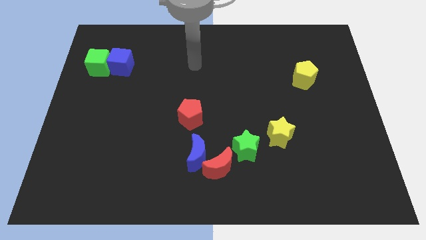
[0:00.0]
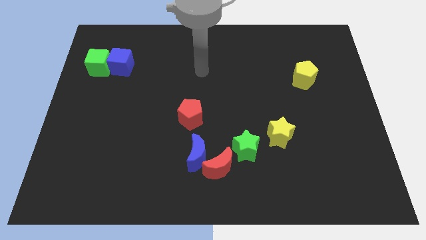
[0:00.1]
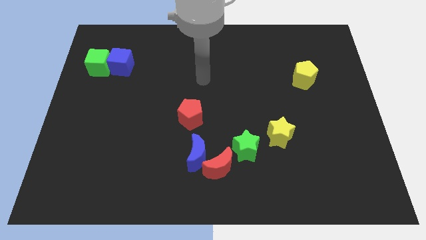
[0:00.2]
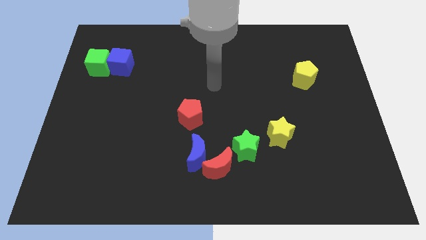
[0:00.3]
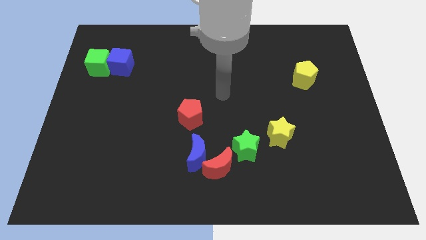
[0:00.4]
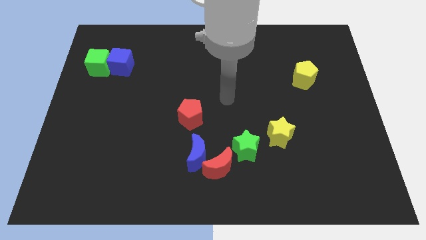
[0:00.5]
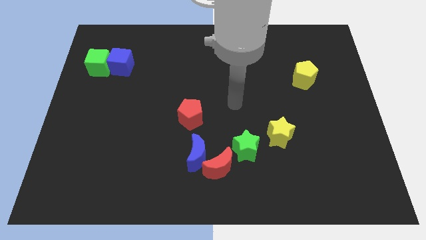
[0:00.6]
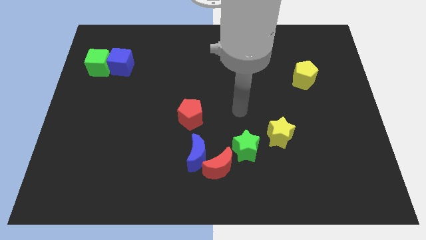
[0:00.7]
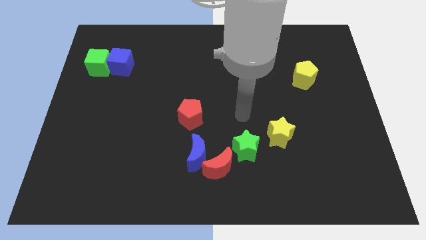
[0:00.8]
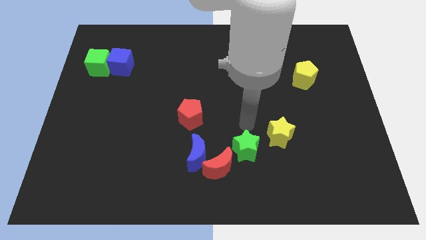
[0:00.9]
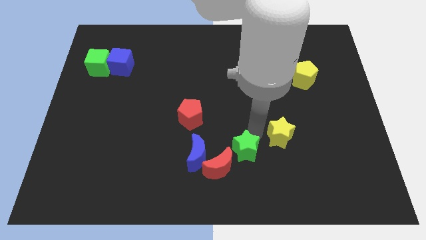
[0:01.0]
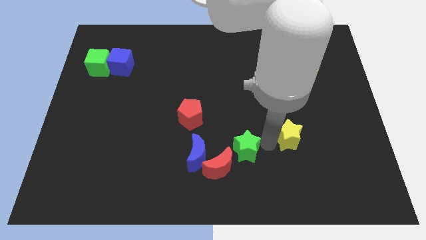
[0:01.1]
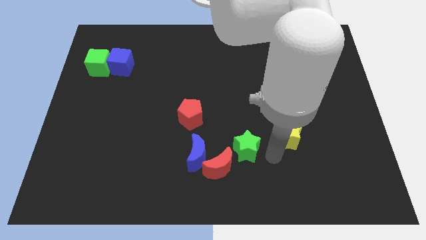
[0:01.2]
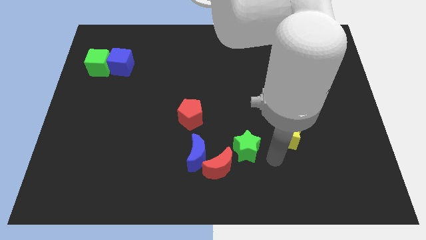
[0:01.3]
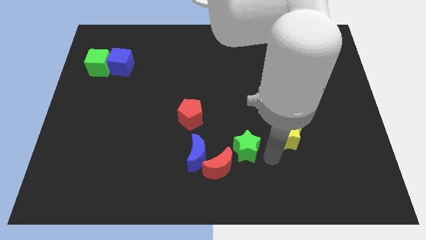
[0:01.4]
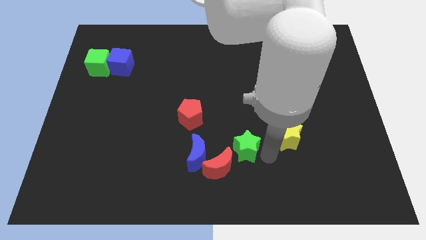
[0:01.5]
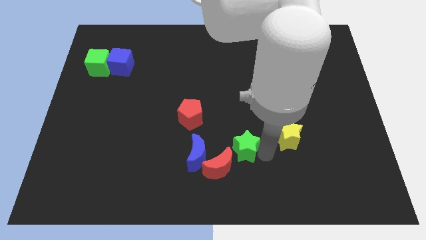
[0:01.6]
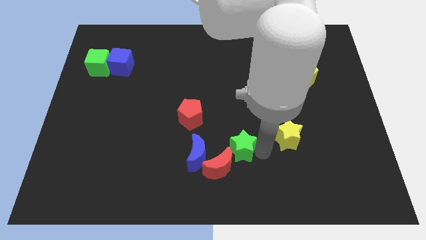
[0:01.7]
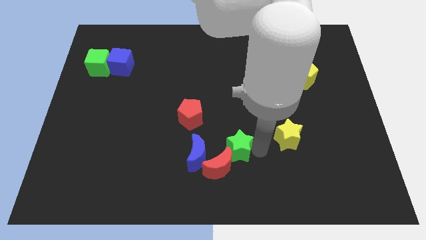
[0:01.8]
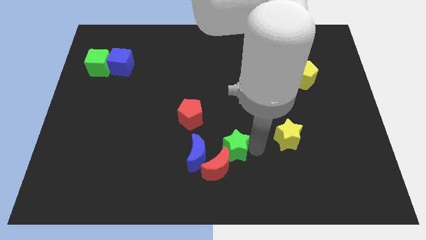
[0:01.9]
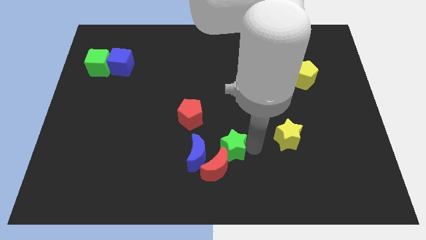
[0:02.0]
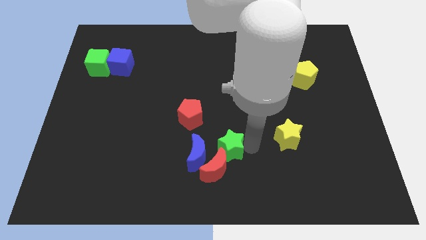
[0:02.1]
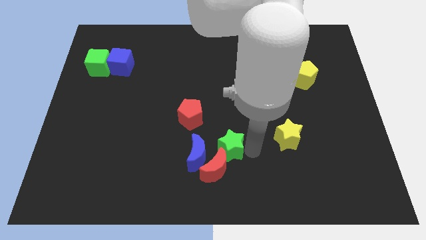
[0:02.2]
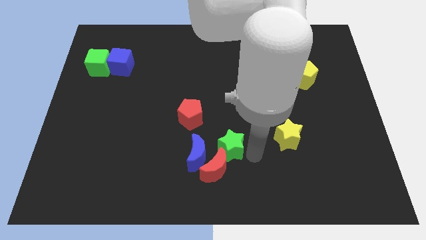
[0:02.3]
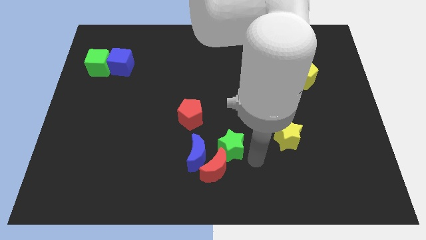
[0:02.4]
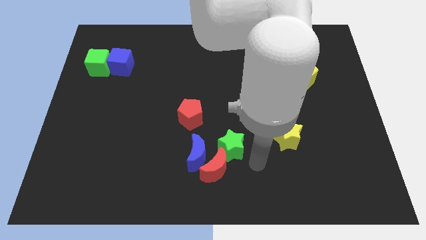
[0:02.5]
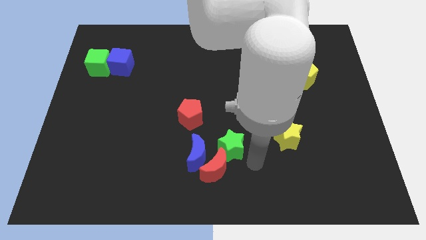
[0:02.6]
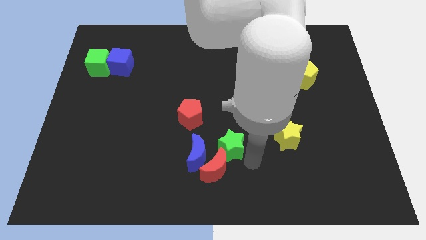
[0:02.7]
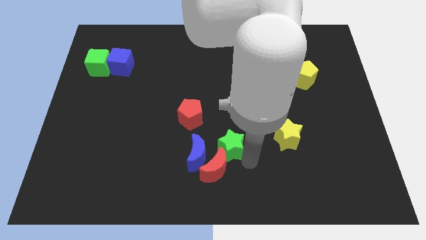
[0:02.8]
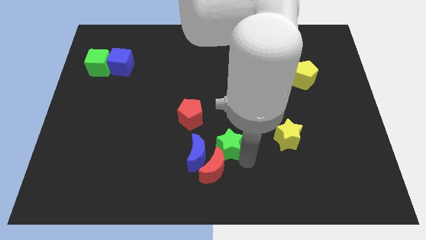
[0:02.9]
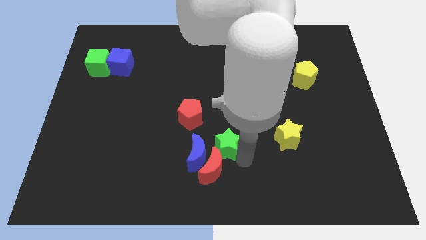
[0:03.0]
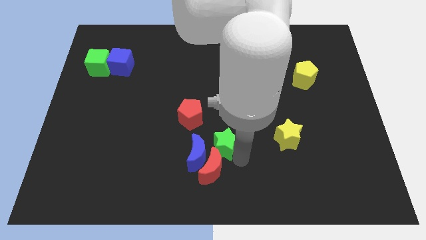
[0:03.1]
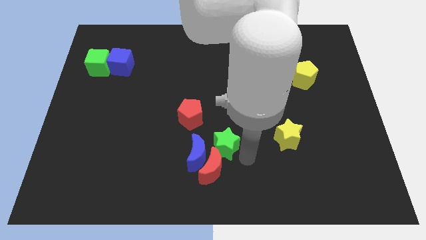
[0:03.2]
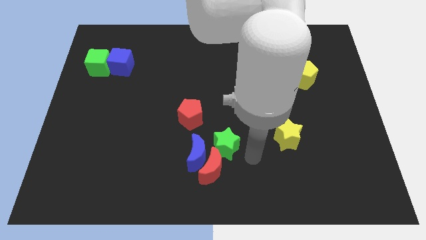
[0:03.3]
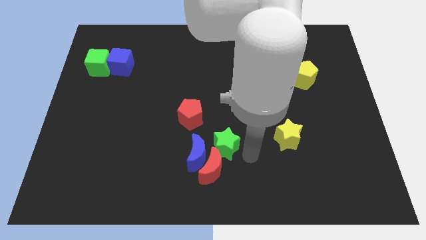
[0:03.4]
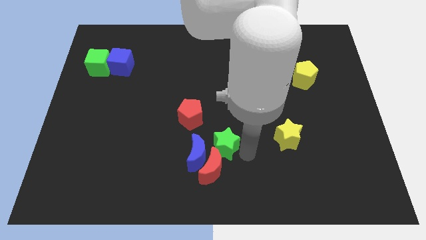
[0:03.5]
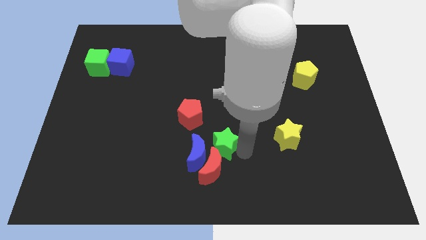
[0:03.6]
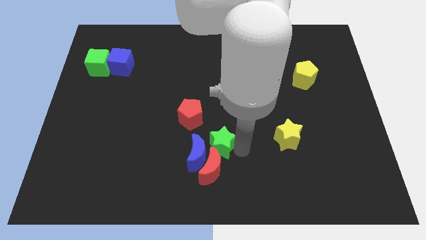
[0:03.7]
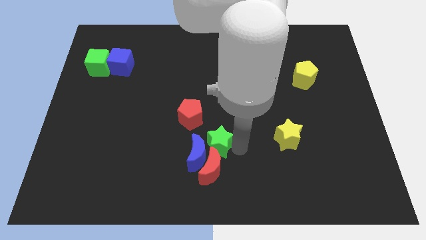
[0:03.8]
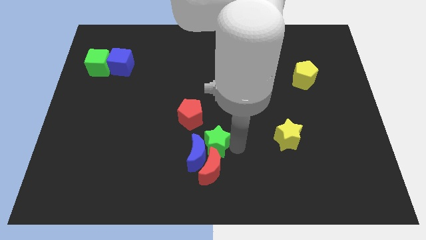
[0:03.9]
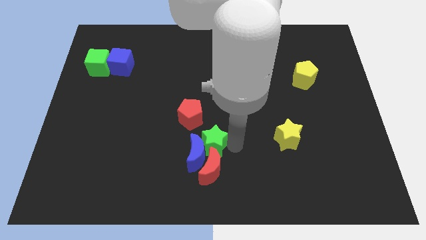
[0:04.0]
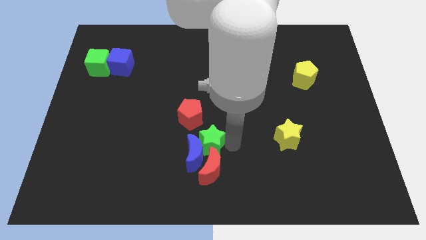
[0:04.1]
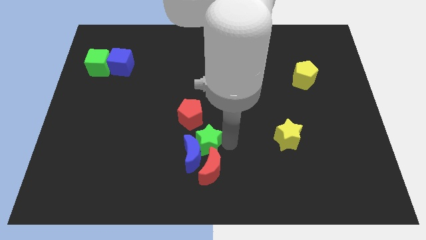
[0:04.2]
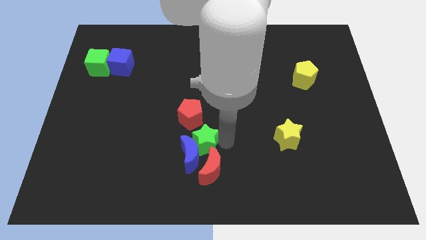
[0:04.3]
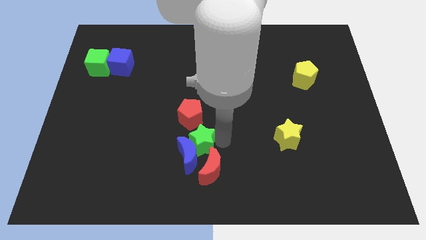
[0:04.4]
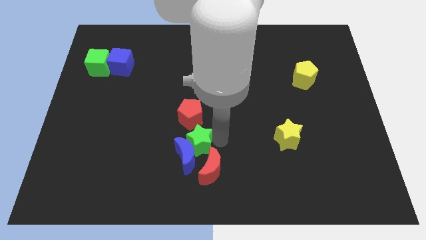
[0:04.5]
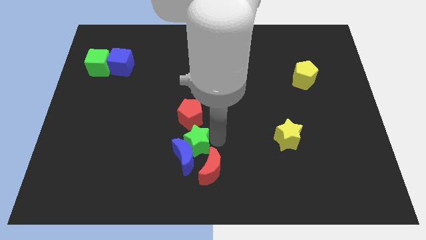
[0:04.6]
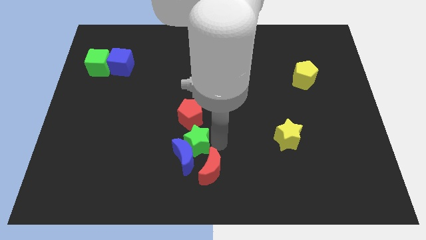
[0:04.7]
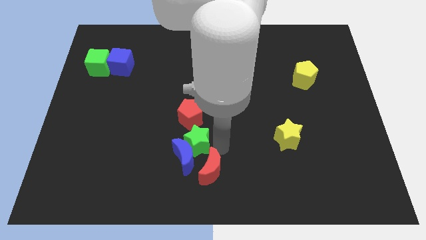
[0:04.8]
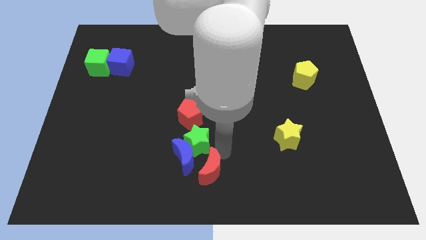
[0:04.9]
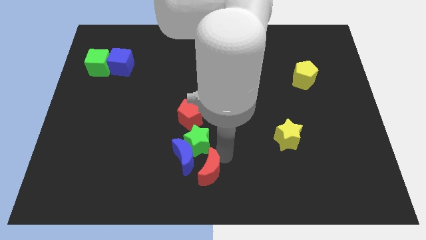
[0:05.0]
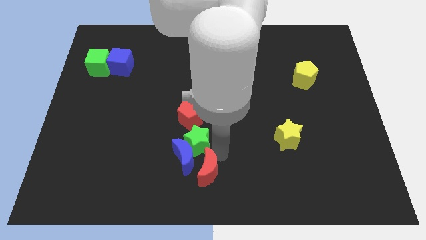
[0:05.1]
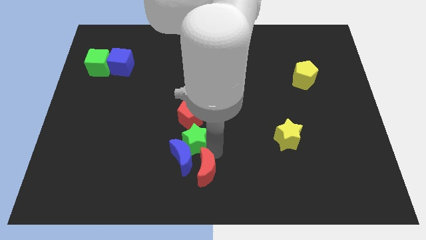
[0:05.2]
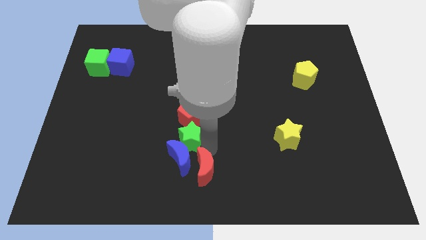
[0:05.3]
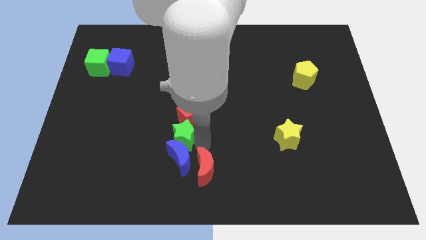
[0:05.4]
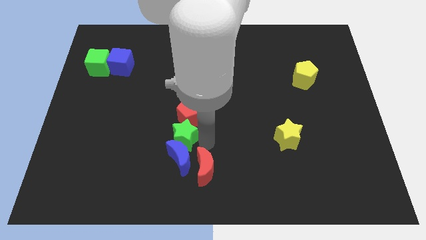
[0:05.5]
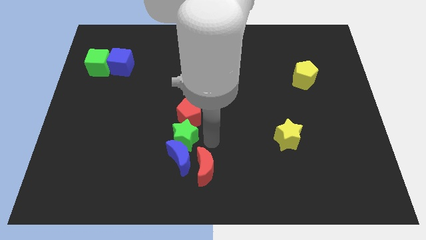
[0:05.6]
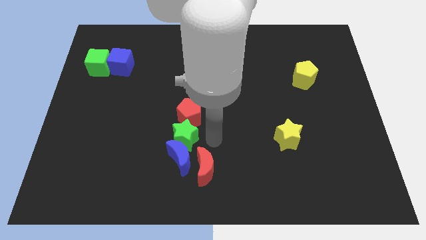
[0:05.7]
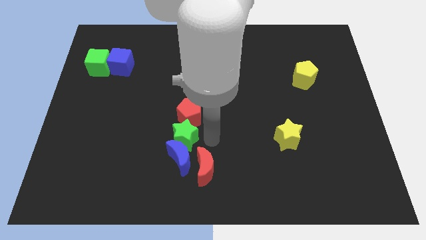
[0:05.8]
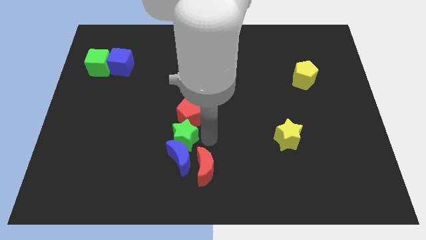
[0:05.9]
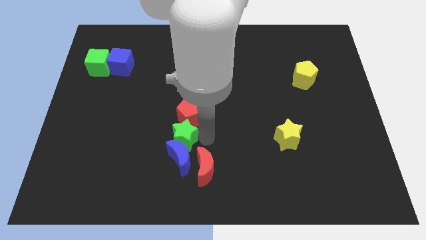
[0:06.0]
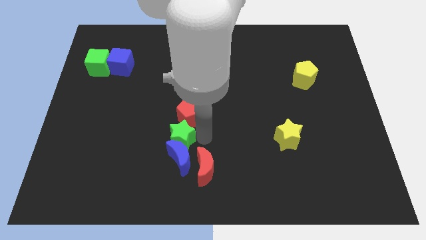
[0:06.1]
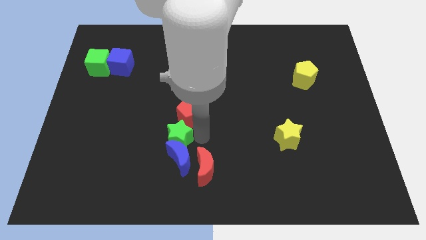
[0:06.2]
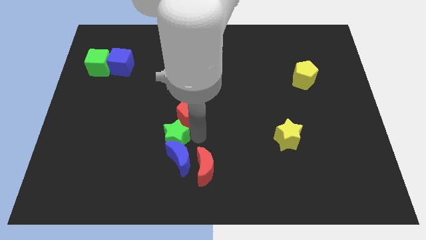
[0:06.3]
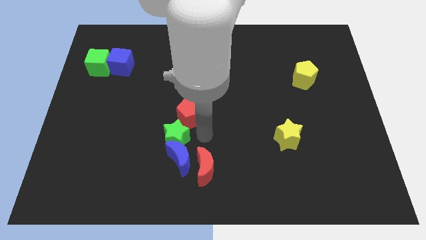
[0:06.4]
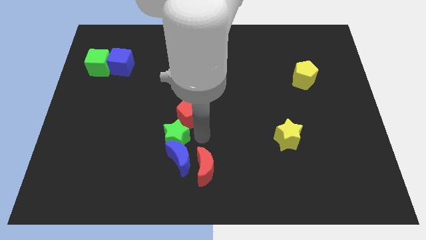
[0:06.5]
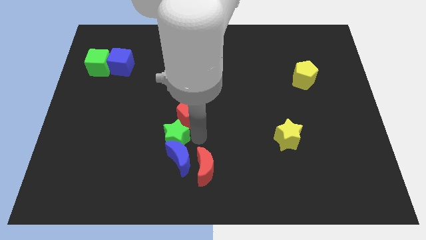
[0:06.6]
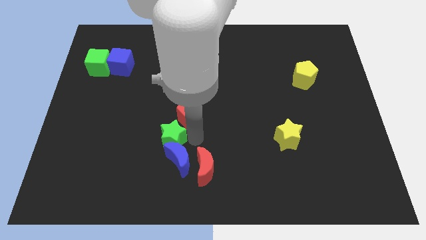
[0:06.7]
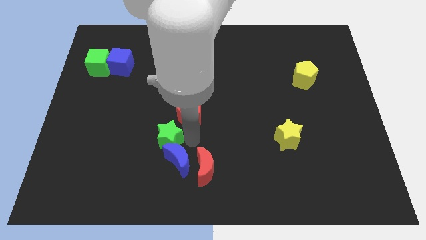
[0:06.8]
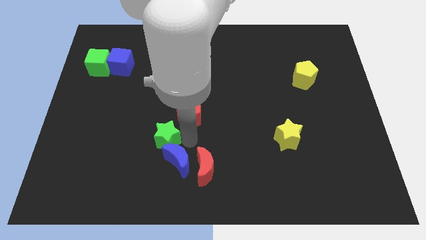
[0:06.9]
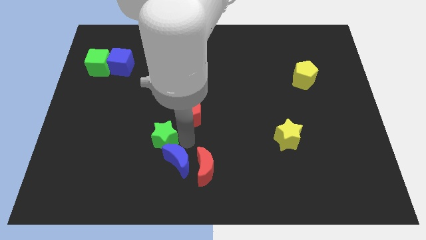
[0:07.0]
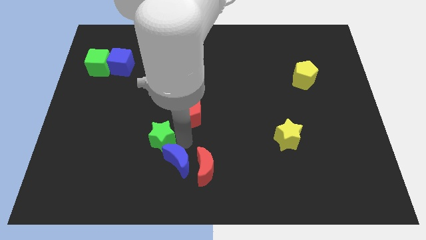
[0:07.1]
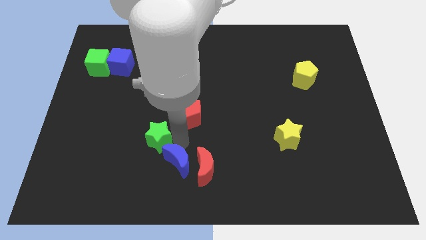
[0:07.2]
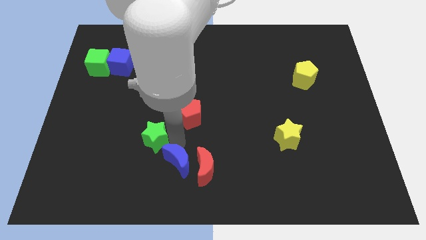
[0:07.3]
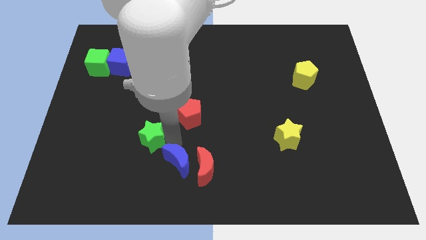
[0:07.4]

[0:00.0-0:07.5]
move the green star left

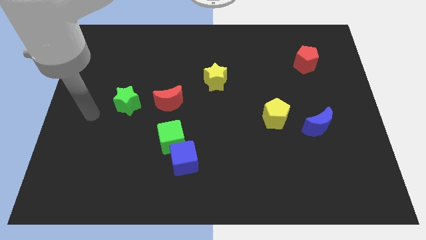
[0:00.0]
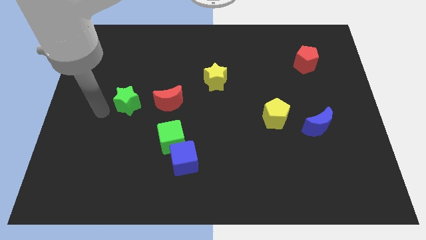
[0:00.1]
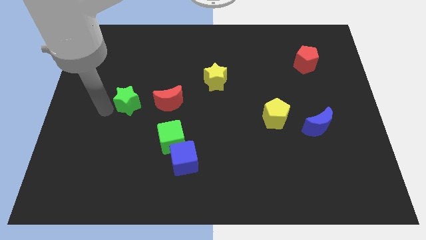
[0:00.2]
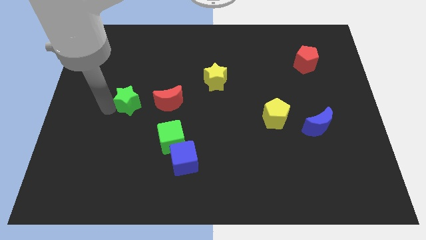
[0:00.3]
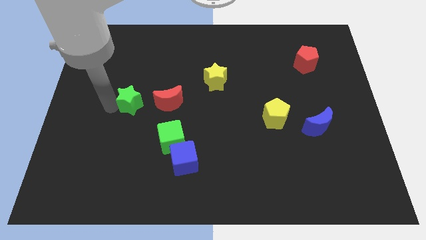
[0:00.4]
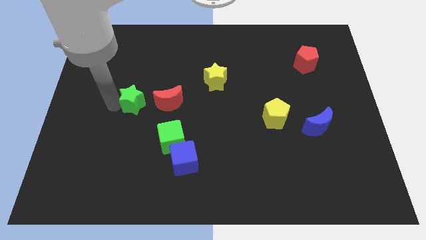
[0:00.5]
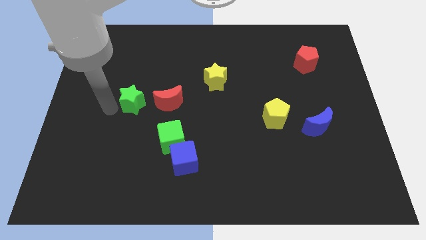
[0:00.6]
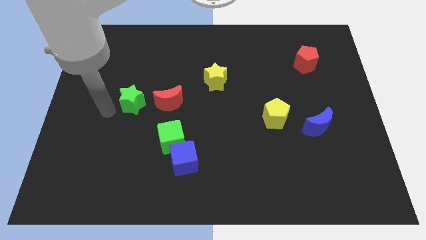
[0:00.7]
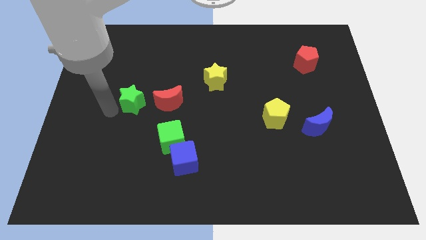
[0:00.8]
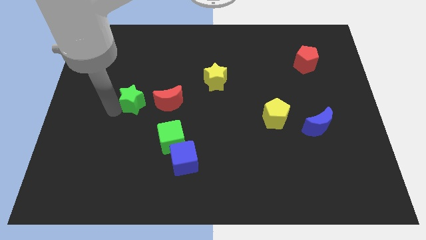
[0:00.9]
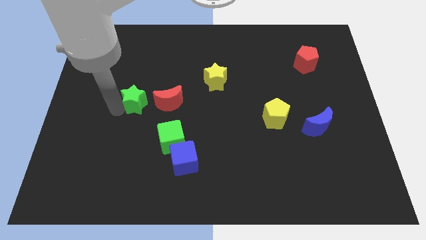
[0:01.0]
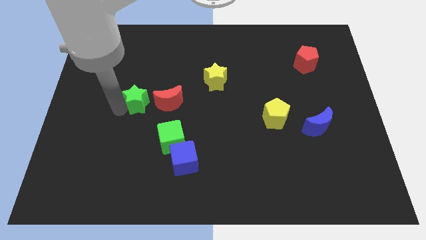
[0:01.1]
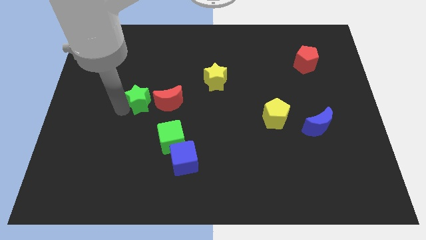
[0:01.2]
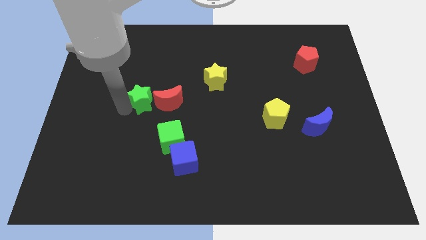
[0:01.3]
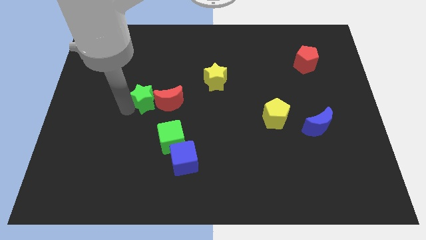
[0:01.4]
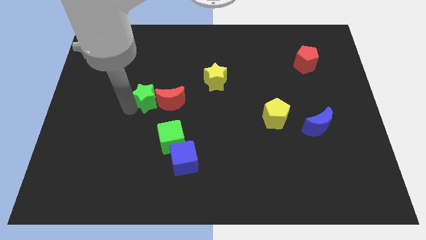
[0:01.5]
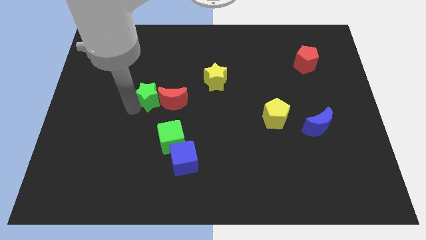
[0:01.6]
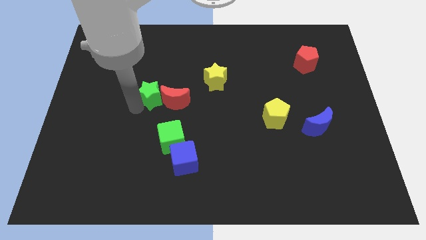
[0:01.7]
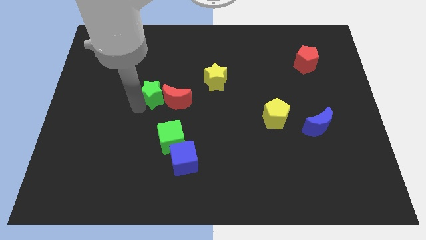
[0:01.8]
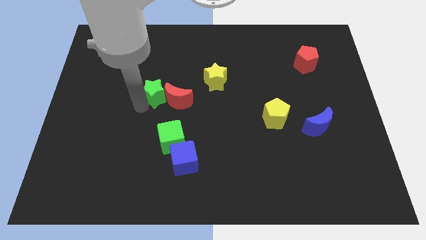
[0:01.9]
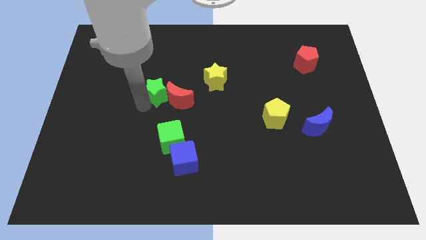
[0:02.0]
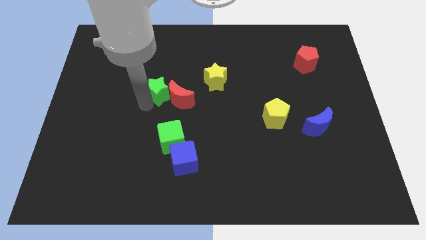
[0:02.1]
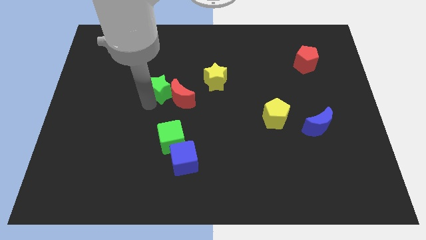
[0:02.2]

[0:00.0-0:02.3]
slightly slide the green star right
